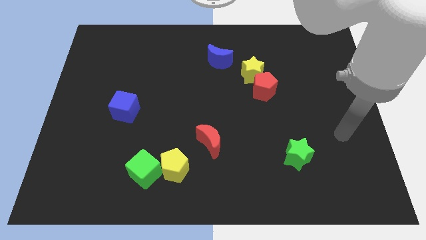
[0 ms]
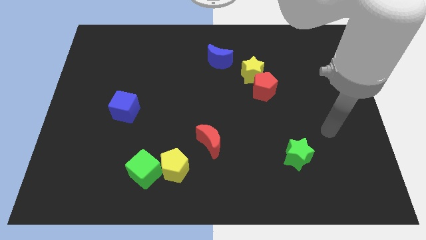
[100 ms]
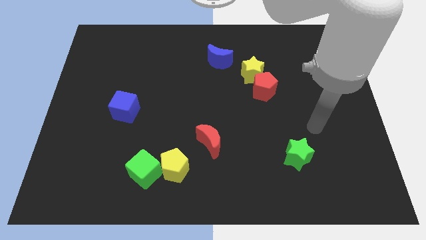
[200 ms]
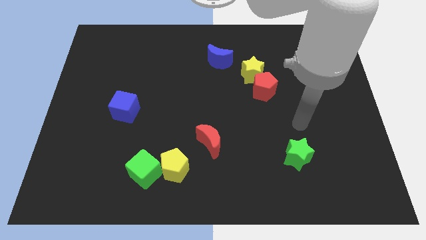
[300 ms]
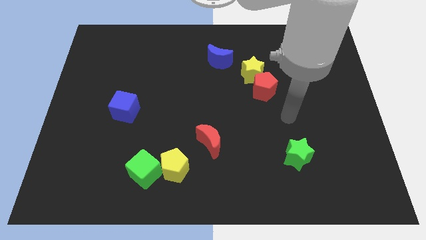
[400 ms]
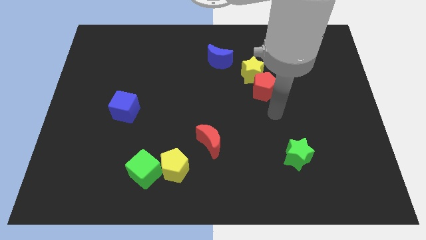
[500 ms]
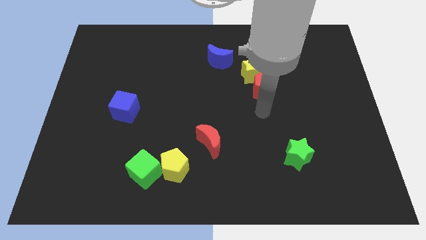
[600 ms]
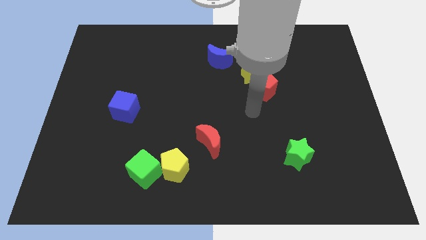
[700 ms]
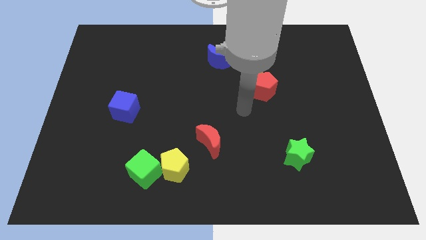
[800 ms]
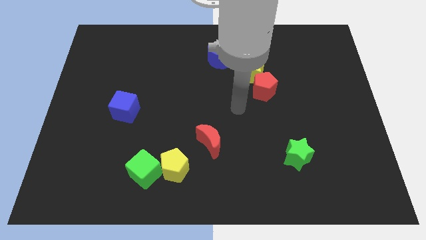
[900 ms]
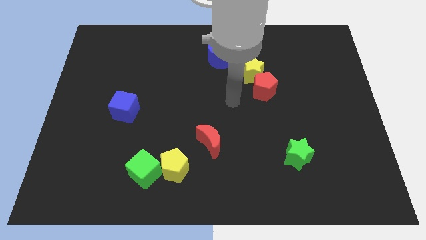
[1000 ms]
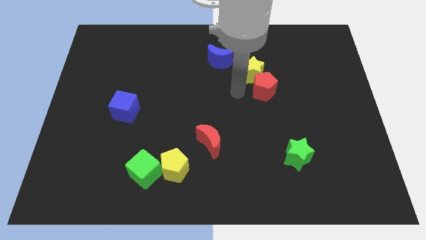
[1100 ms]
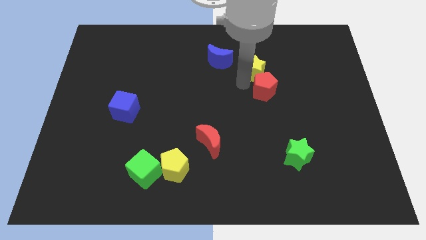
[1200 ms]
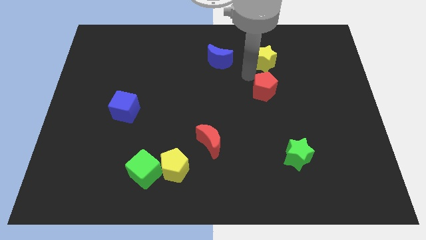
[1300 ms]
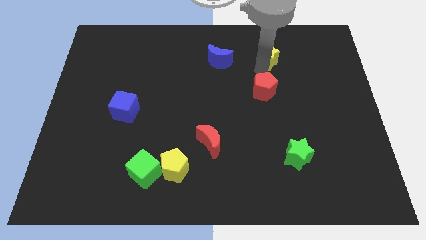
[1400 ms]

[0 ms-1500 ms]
move the red pentagon away from the yellow star

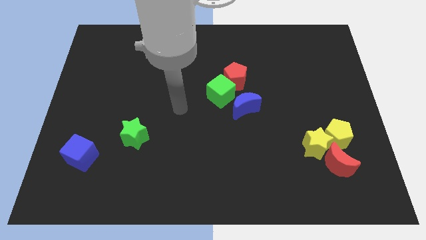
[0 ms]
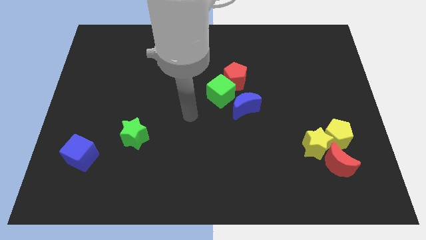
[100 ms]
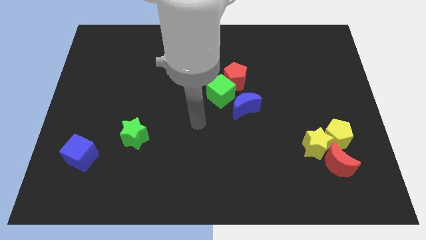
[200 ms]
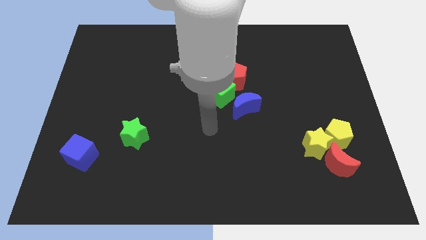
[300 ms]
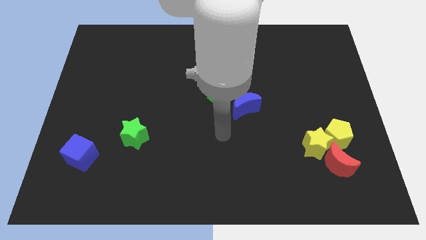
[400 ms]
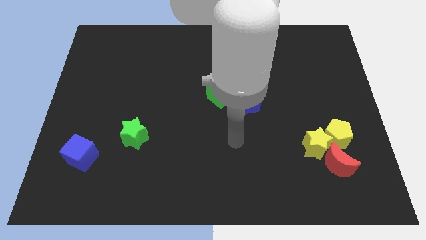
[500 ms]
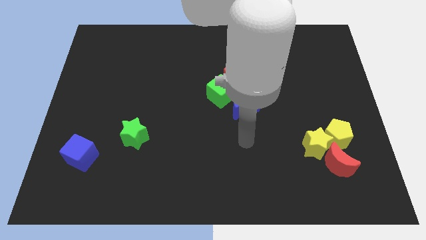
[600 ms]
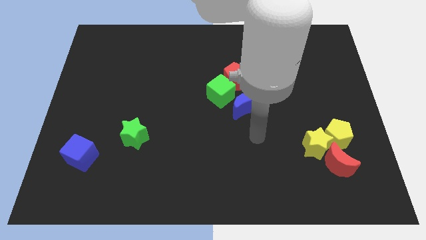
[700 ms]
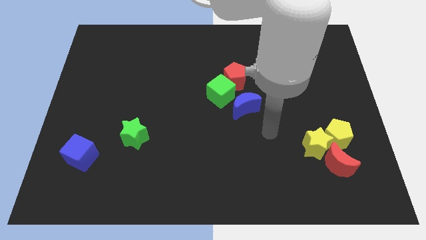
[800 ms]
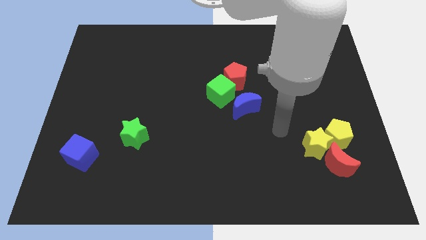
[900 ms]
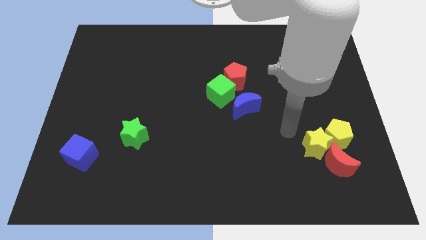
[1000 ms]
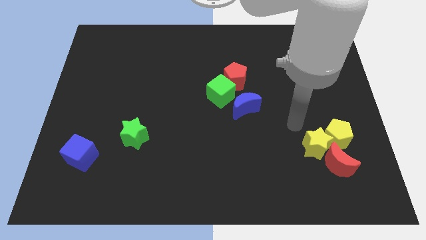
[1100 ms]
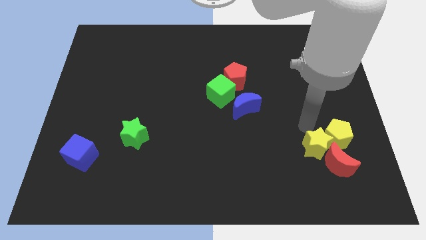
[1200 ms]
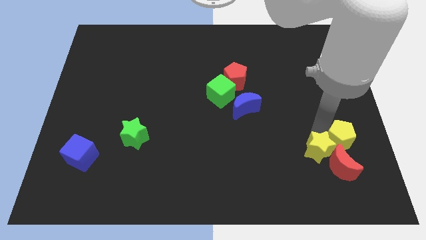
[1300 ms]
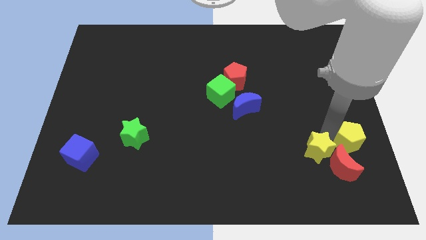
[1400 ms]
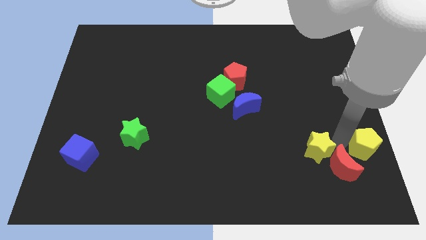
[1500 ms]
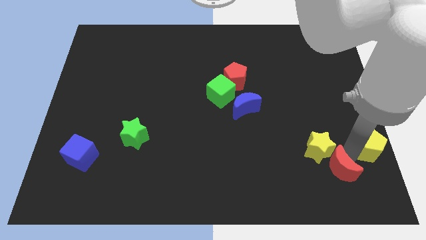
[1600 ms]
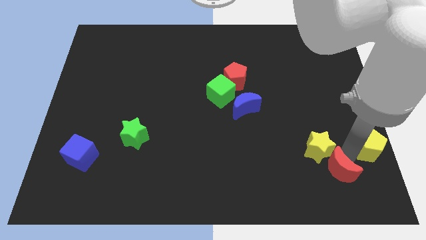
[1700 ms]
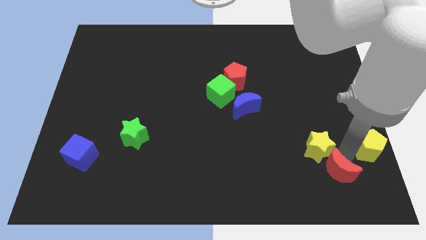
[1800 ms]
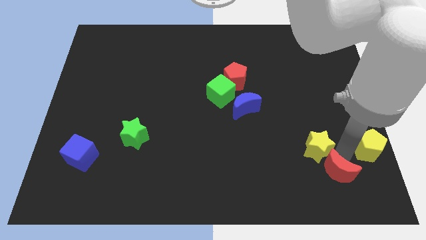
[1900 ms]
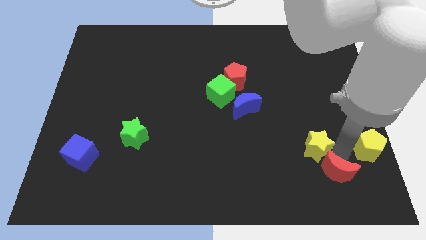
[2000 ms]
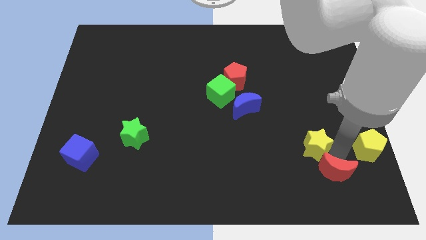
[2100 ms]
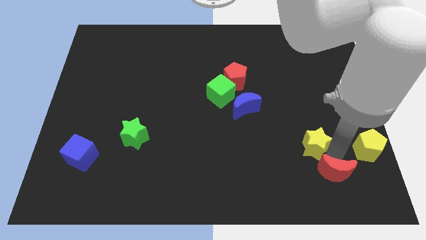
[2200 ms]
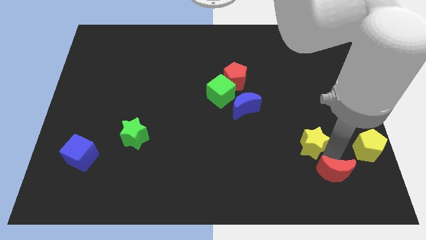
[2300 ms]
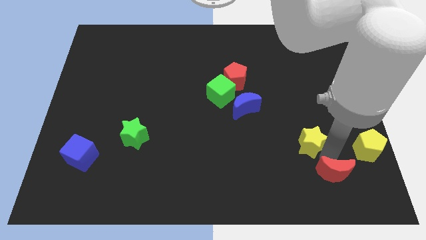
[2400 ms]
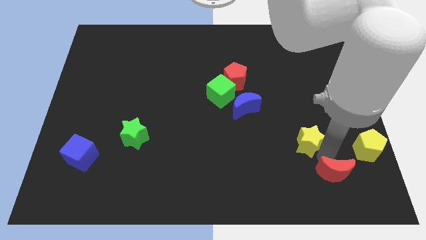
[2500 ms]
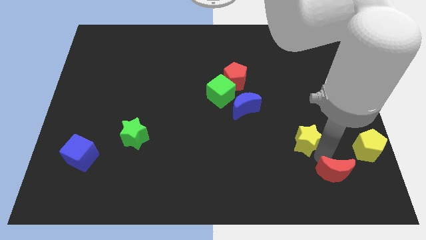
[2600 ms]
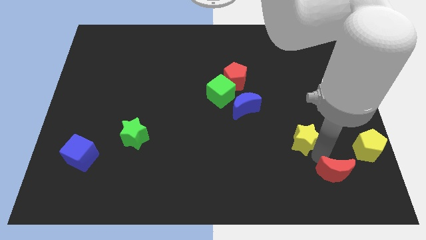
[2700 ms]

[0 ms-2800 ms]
move the yellow star away from the yellow pentagon and red moon

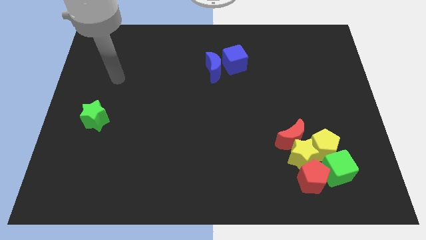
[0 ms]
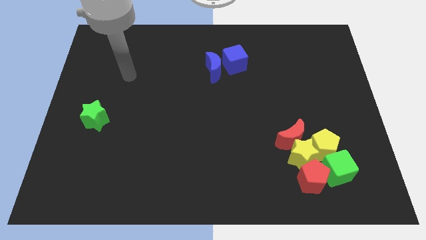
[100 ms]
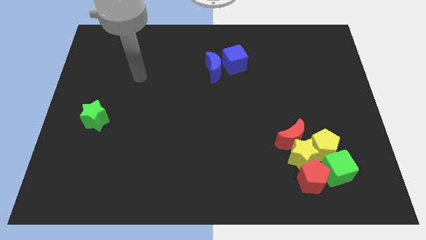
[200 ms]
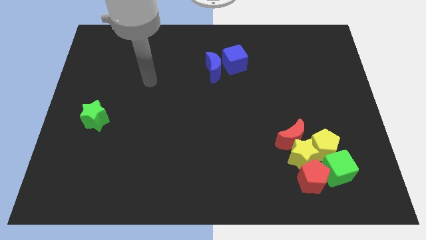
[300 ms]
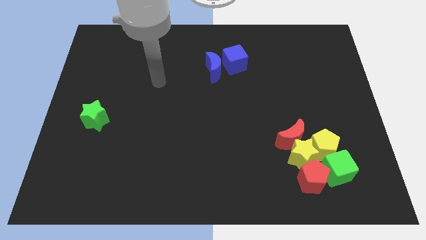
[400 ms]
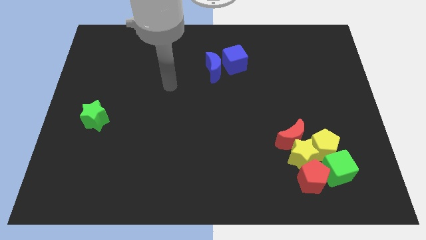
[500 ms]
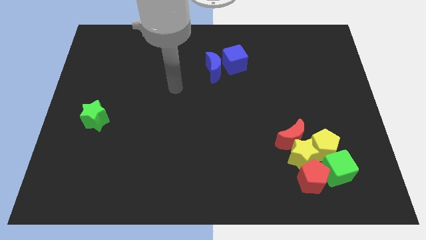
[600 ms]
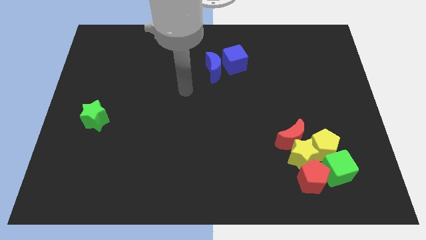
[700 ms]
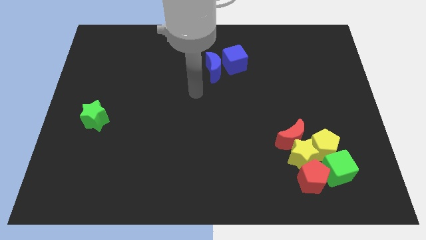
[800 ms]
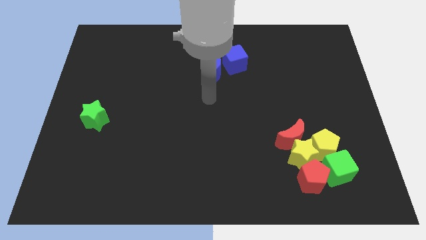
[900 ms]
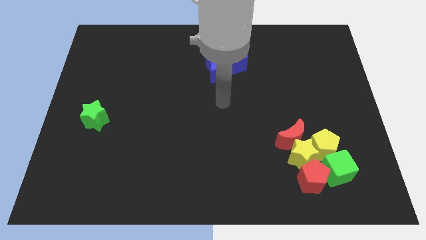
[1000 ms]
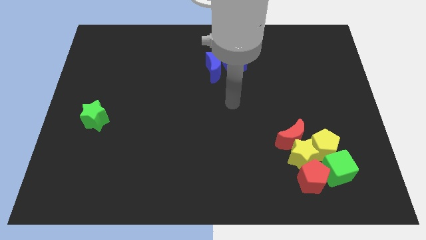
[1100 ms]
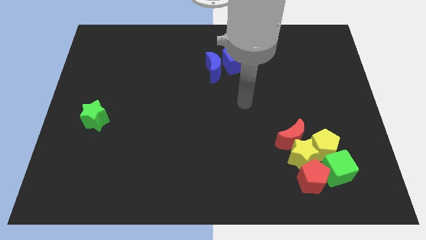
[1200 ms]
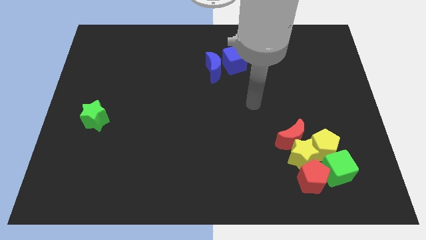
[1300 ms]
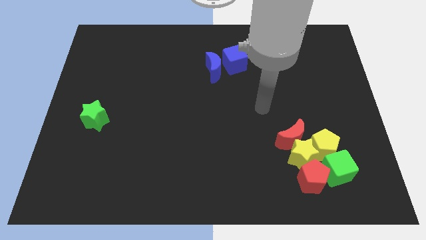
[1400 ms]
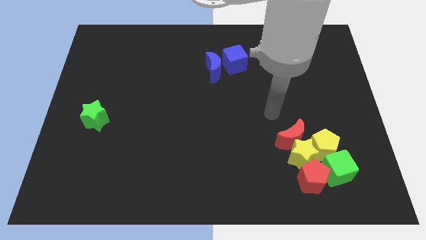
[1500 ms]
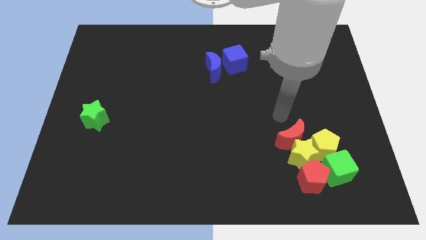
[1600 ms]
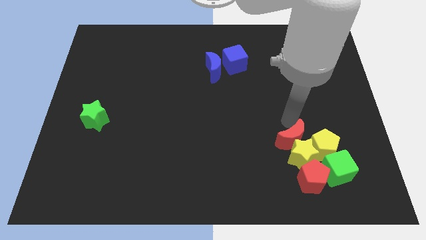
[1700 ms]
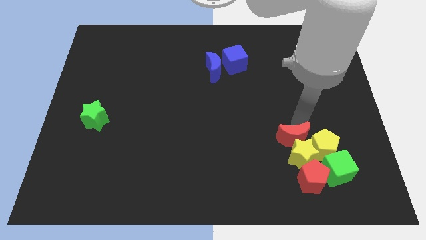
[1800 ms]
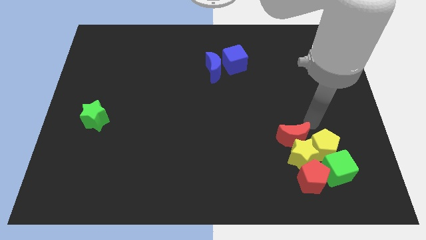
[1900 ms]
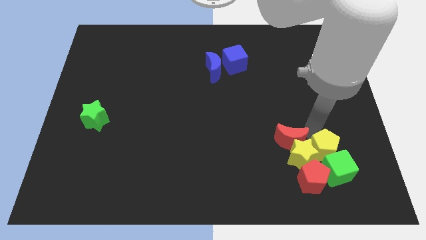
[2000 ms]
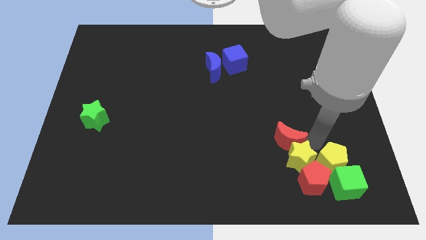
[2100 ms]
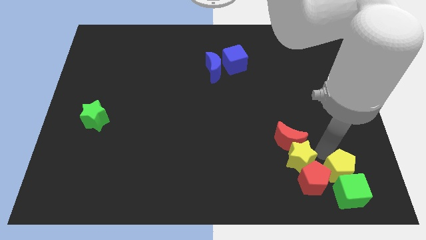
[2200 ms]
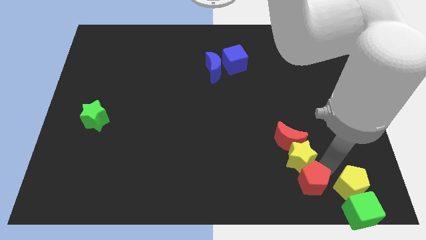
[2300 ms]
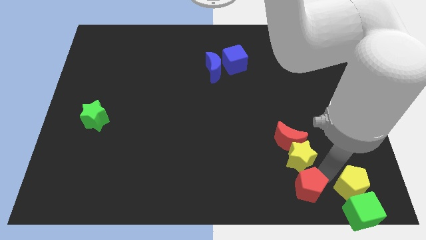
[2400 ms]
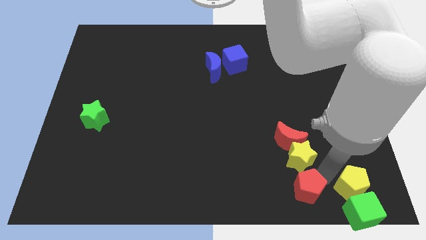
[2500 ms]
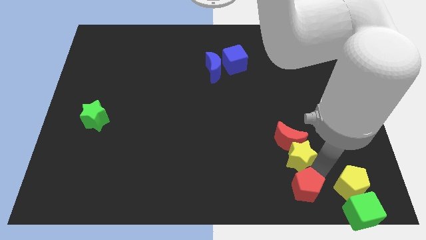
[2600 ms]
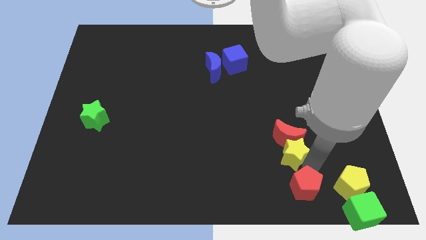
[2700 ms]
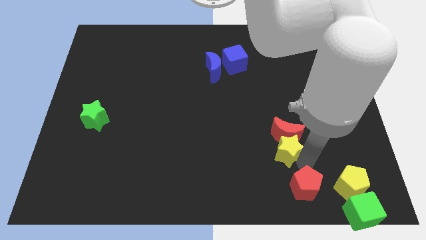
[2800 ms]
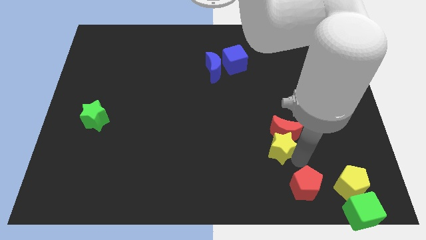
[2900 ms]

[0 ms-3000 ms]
move the yellow star away from the group

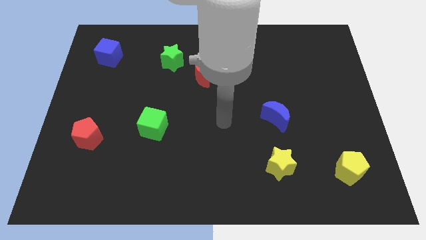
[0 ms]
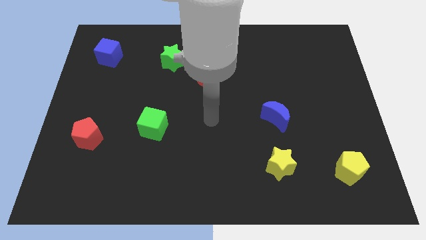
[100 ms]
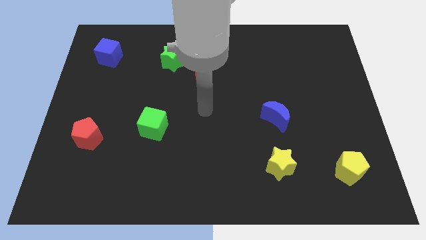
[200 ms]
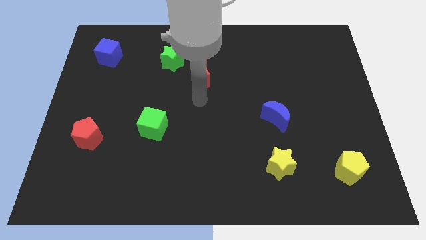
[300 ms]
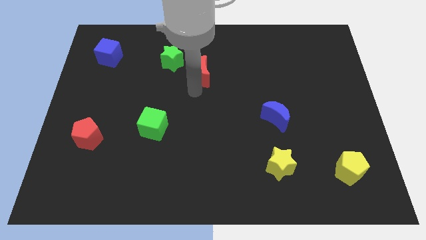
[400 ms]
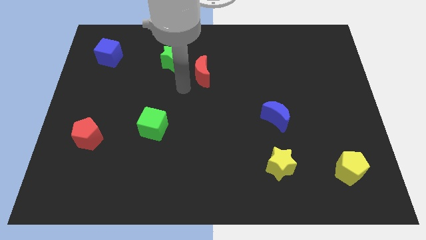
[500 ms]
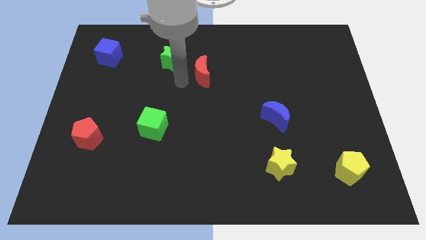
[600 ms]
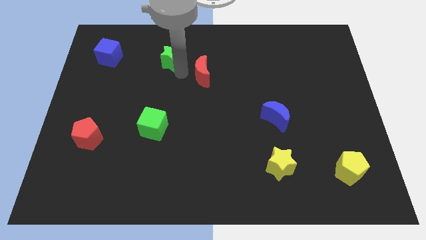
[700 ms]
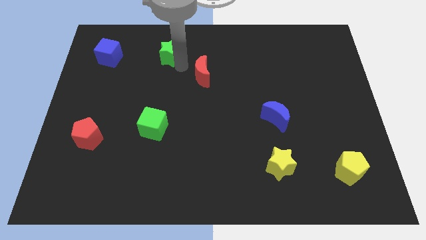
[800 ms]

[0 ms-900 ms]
pull the red moon apart from the green star

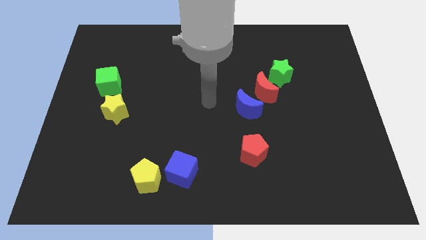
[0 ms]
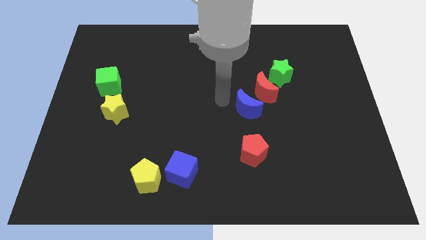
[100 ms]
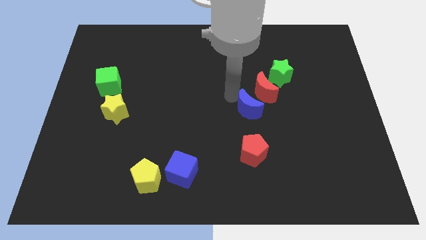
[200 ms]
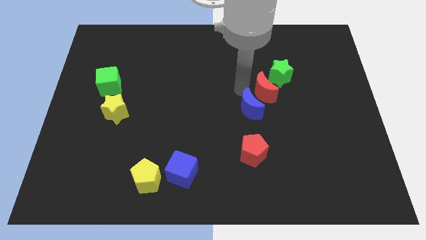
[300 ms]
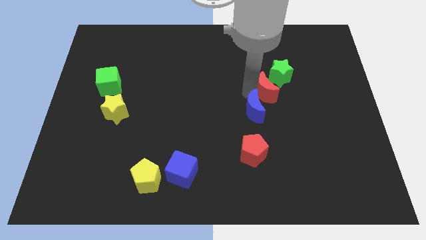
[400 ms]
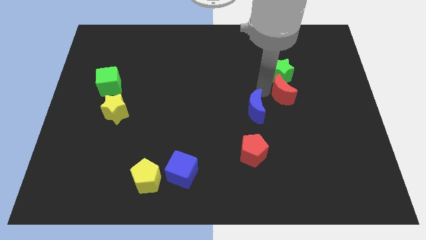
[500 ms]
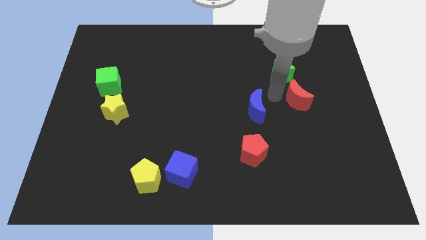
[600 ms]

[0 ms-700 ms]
pull the blue moon apart from the red moon

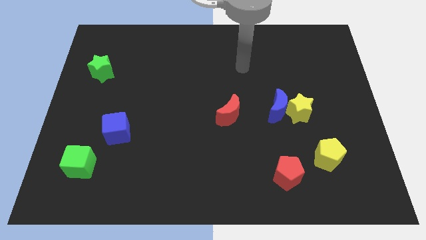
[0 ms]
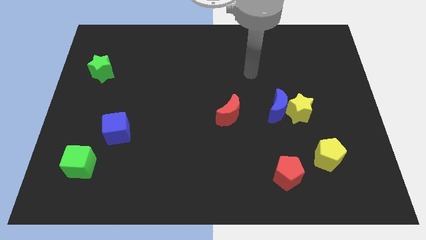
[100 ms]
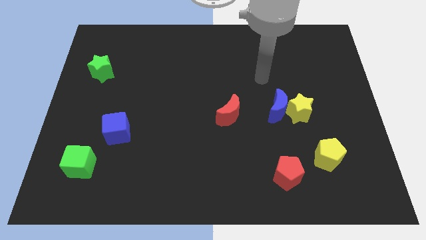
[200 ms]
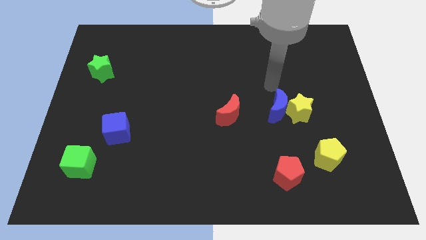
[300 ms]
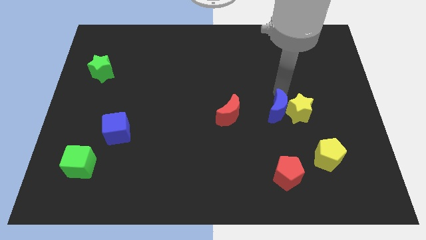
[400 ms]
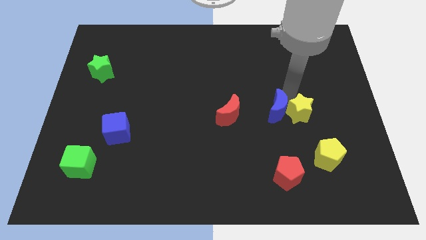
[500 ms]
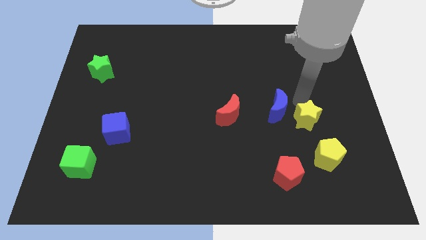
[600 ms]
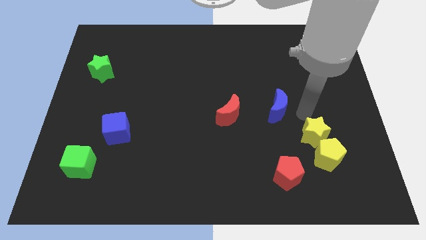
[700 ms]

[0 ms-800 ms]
separate the blue moon from the yellow star
